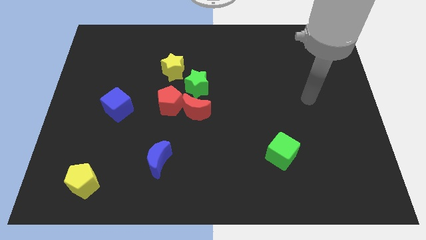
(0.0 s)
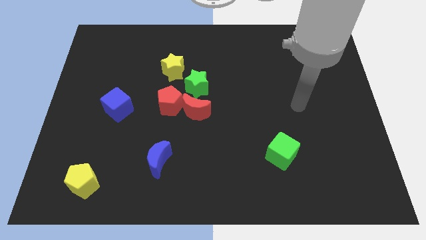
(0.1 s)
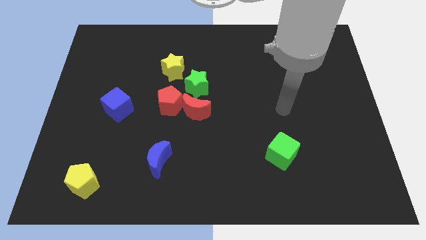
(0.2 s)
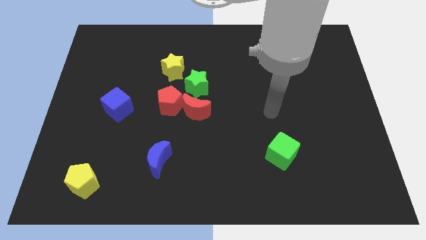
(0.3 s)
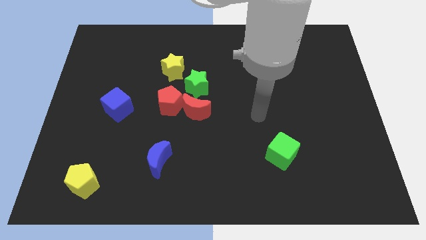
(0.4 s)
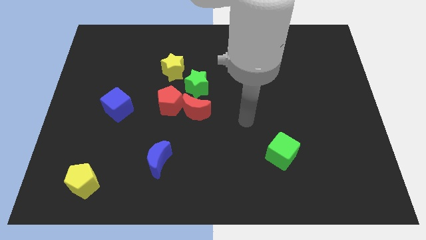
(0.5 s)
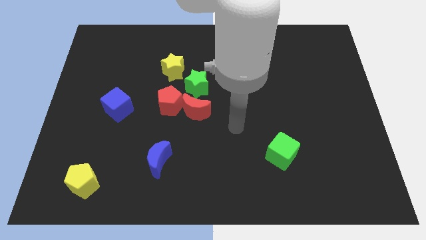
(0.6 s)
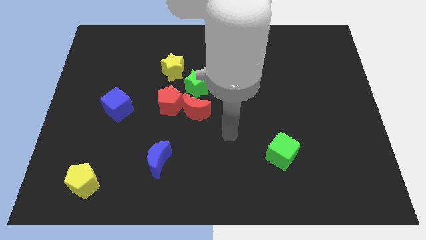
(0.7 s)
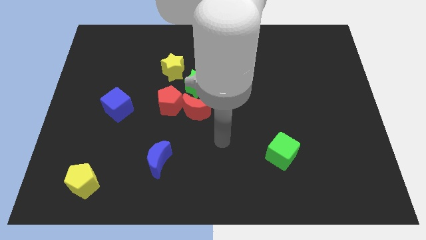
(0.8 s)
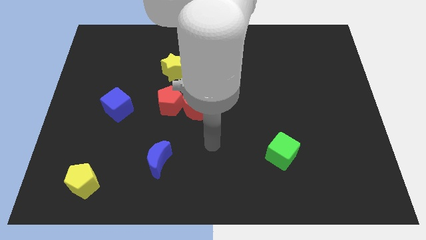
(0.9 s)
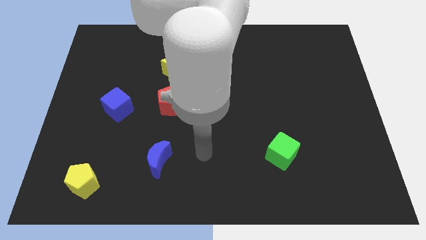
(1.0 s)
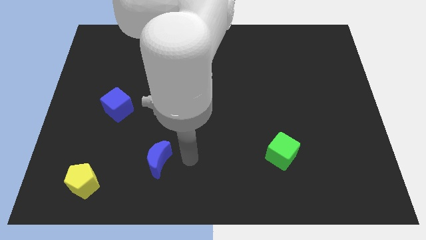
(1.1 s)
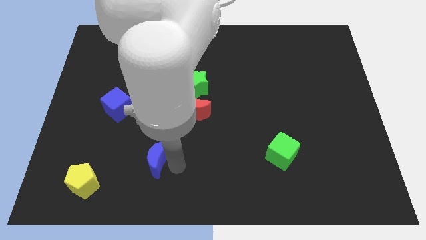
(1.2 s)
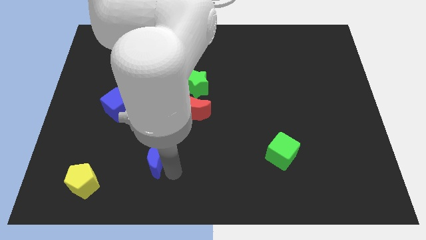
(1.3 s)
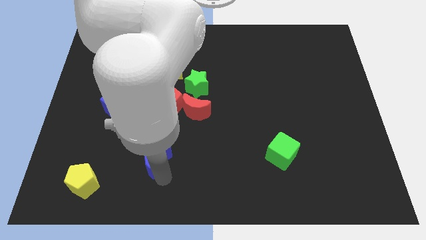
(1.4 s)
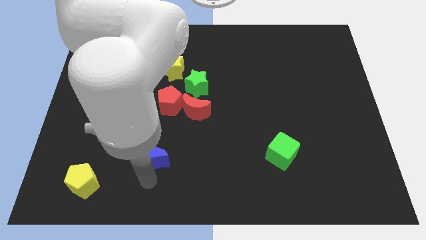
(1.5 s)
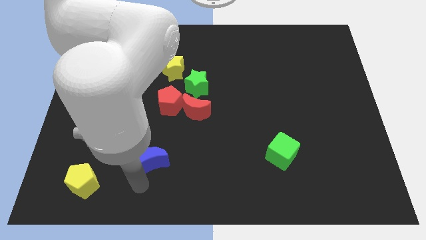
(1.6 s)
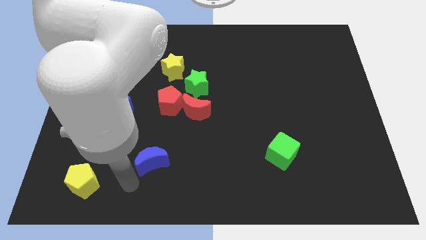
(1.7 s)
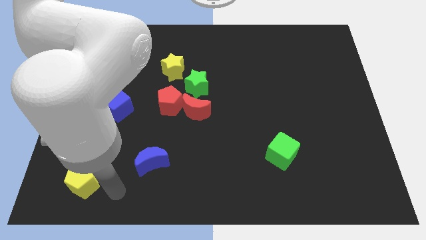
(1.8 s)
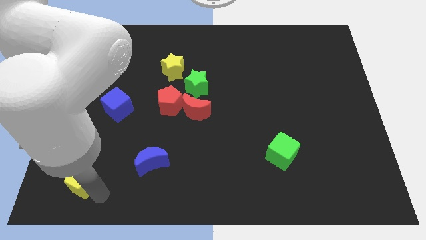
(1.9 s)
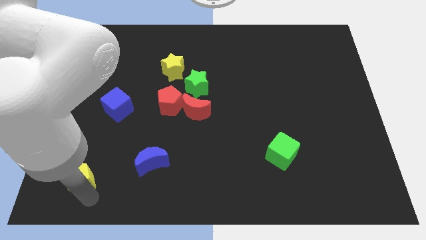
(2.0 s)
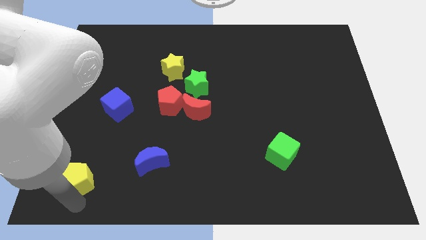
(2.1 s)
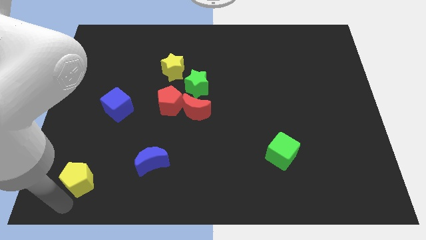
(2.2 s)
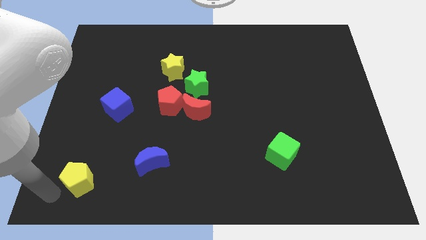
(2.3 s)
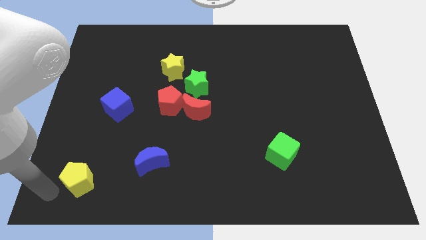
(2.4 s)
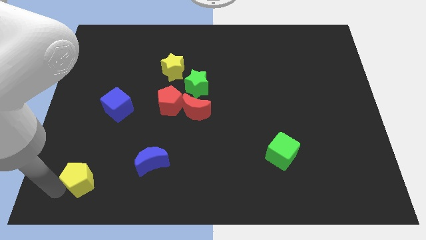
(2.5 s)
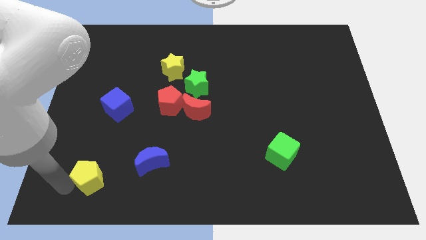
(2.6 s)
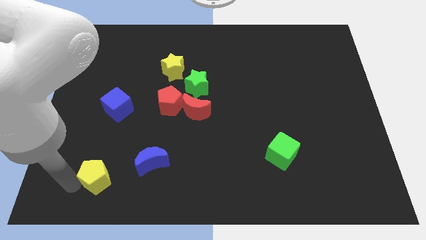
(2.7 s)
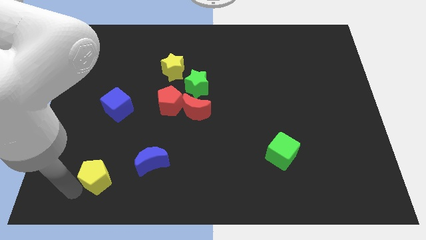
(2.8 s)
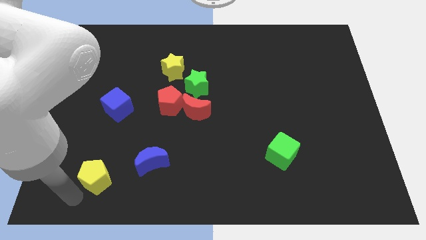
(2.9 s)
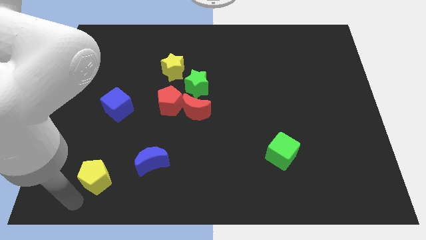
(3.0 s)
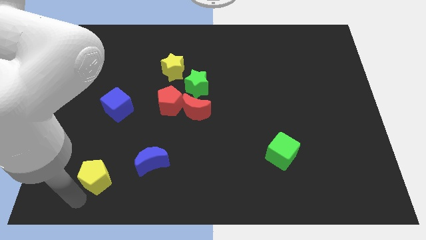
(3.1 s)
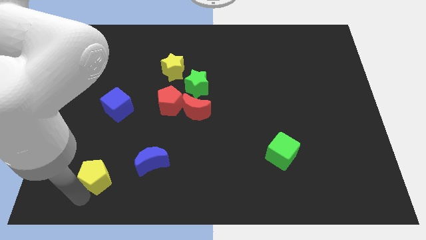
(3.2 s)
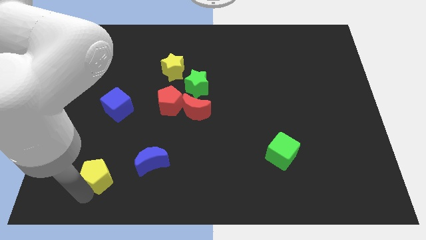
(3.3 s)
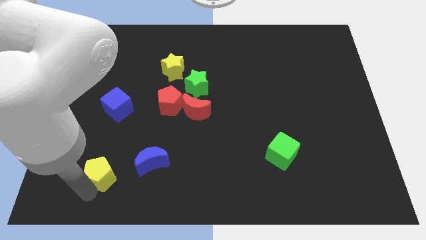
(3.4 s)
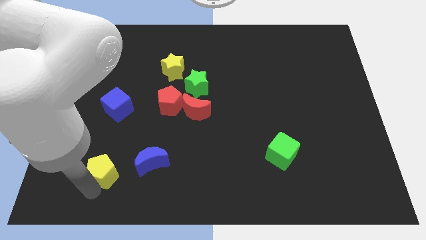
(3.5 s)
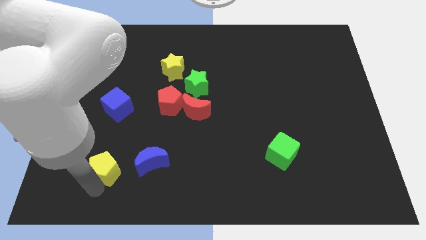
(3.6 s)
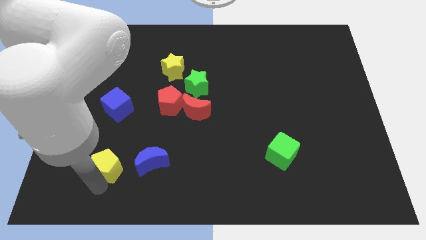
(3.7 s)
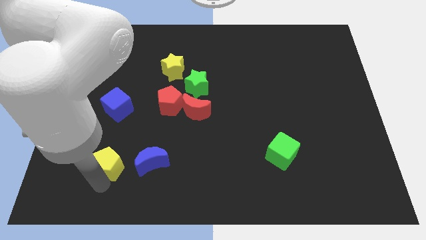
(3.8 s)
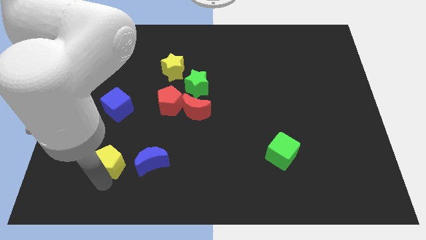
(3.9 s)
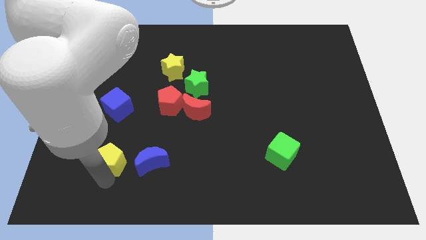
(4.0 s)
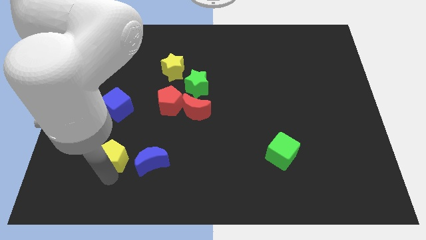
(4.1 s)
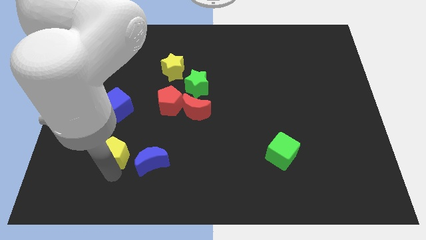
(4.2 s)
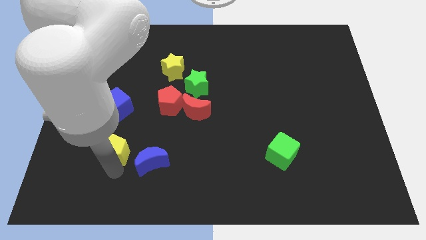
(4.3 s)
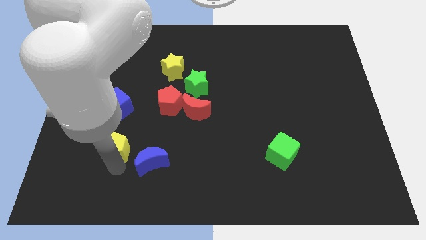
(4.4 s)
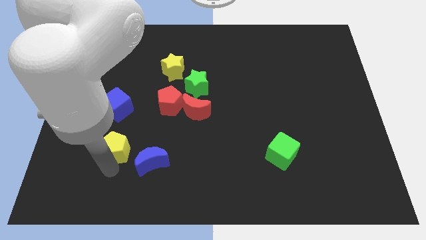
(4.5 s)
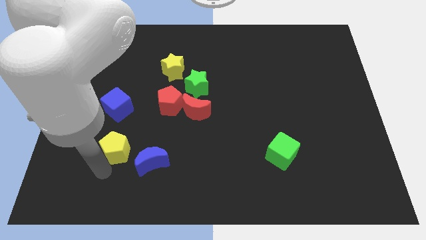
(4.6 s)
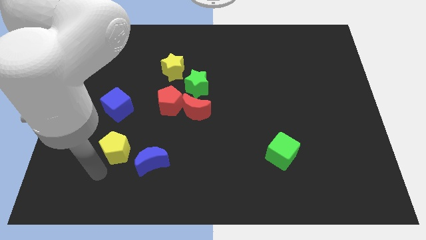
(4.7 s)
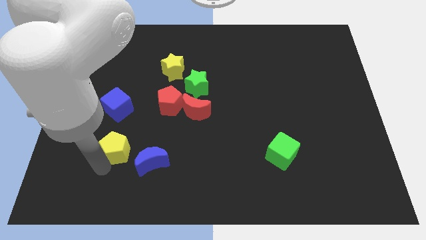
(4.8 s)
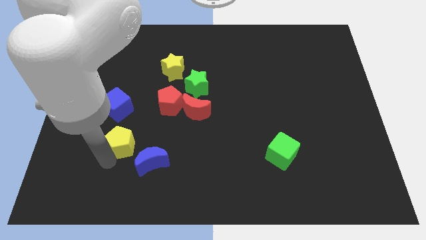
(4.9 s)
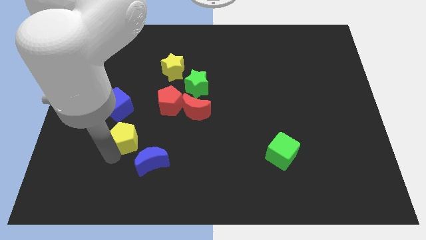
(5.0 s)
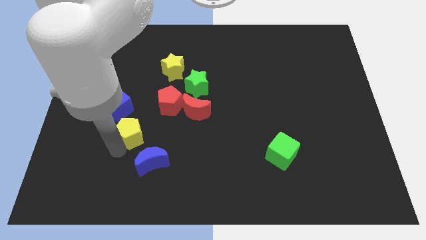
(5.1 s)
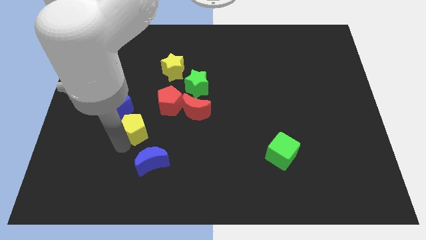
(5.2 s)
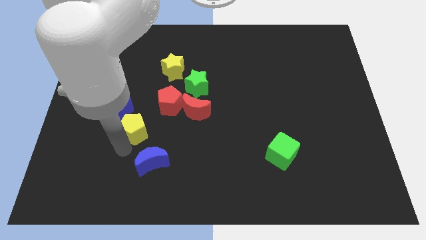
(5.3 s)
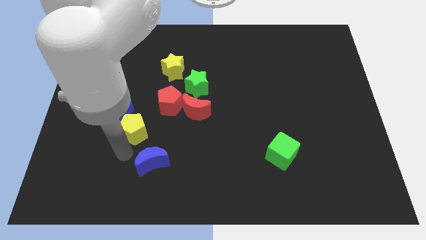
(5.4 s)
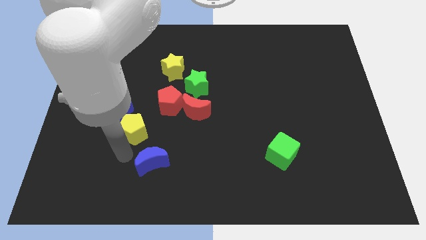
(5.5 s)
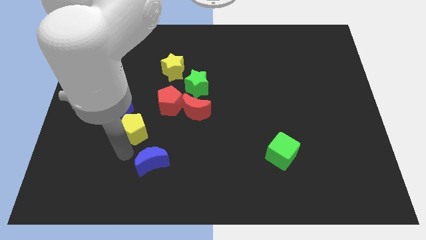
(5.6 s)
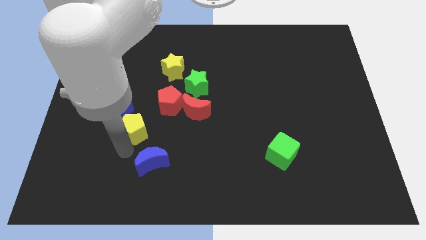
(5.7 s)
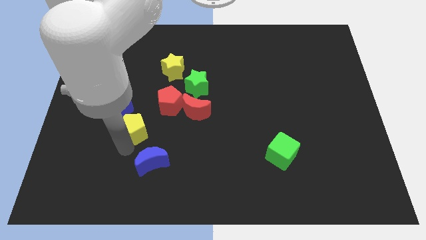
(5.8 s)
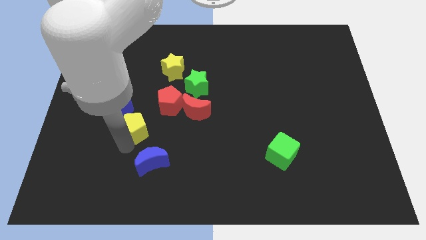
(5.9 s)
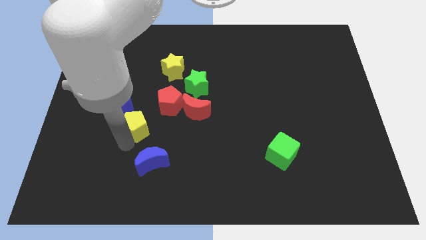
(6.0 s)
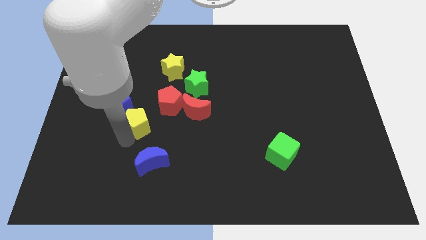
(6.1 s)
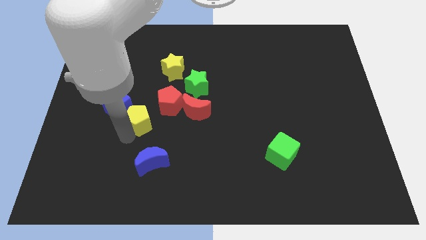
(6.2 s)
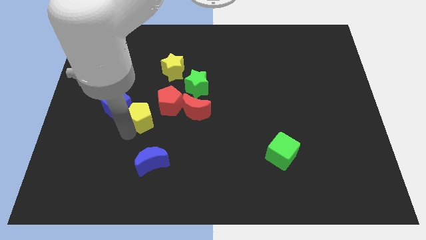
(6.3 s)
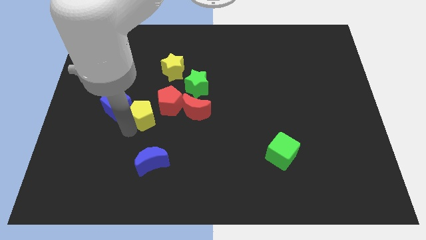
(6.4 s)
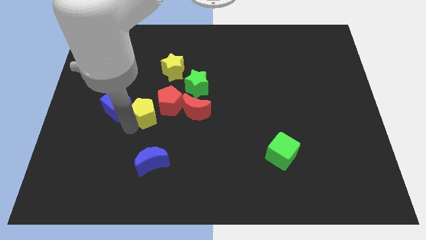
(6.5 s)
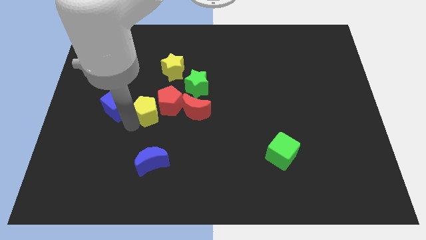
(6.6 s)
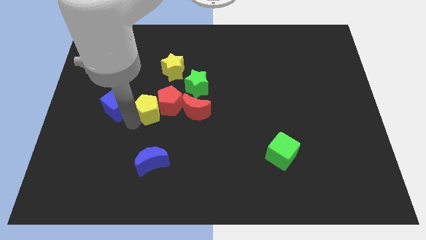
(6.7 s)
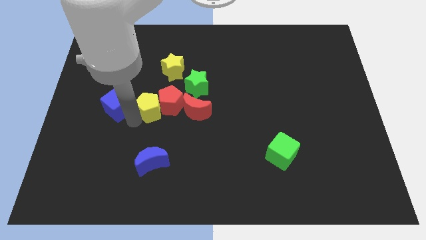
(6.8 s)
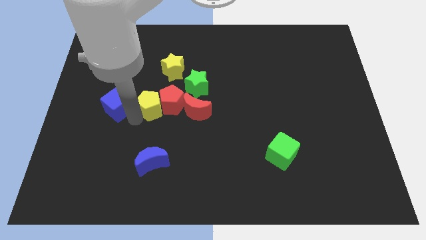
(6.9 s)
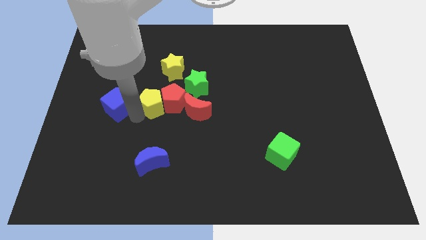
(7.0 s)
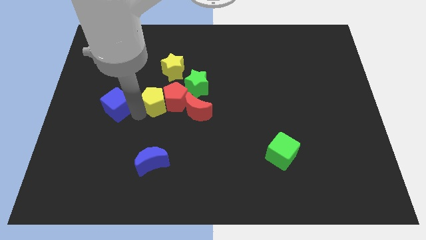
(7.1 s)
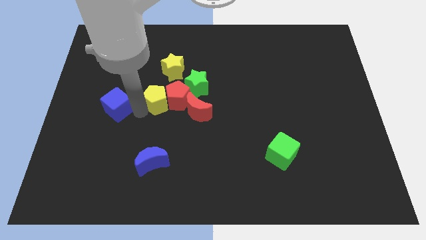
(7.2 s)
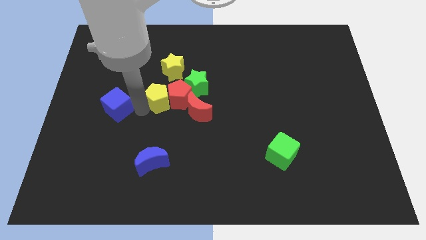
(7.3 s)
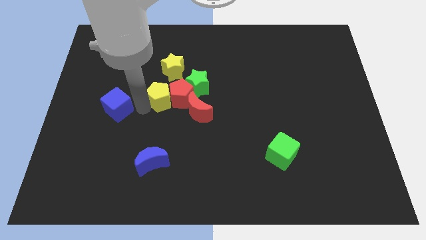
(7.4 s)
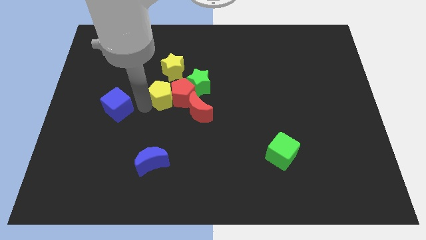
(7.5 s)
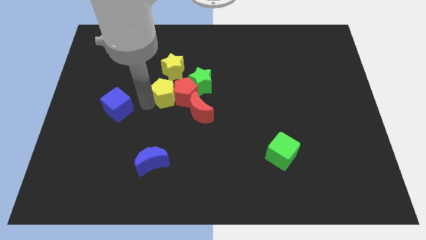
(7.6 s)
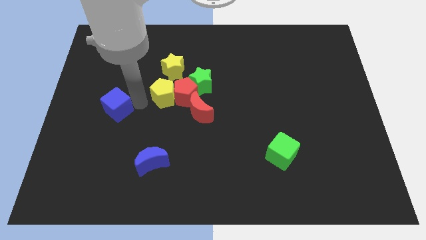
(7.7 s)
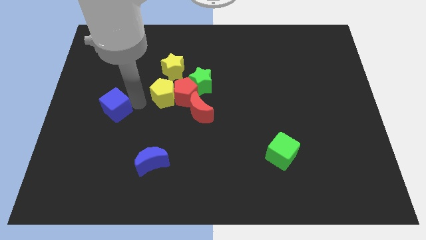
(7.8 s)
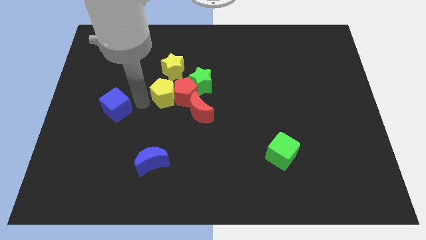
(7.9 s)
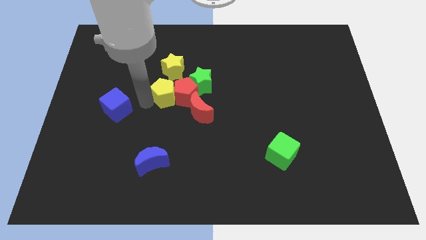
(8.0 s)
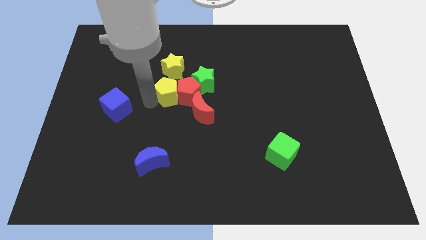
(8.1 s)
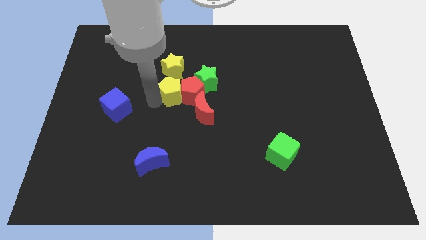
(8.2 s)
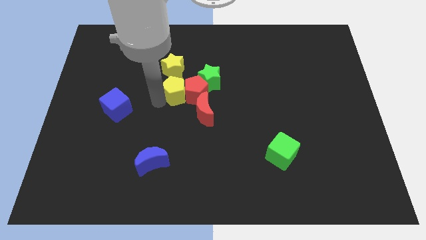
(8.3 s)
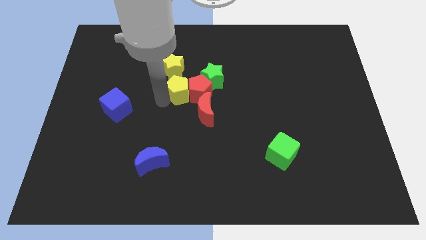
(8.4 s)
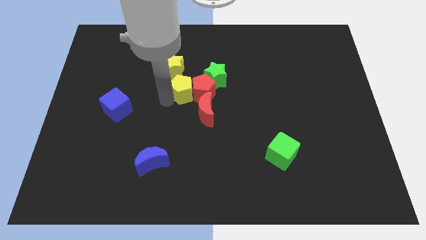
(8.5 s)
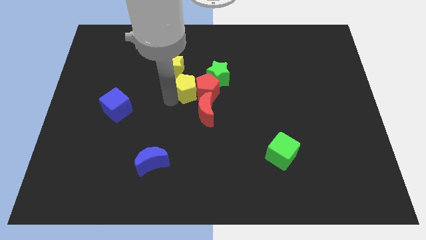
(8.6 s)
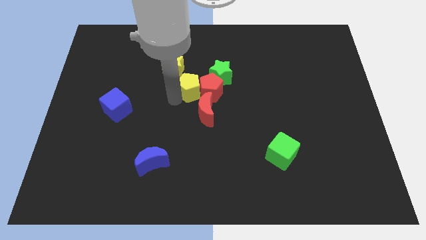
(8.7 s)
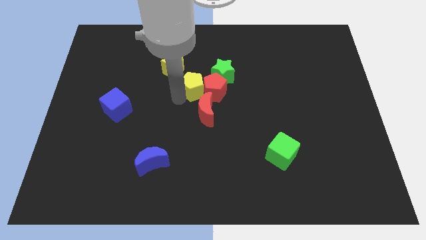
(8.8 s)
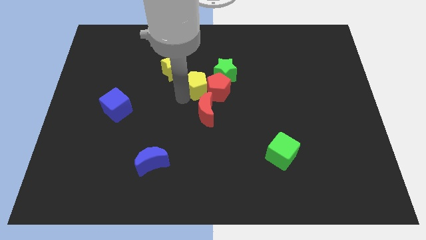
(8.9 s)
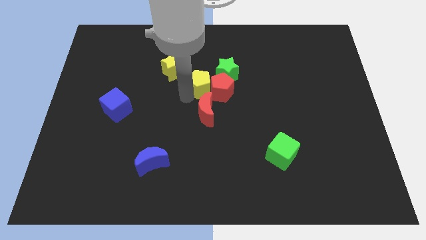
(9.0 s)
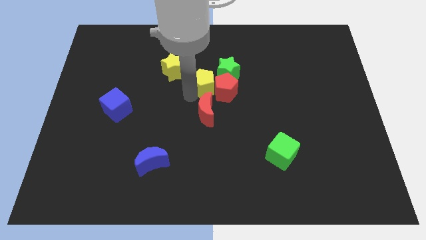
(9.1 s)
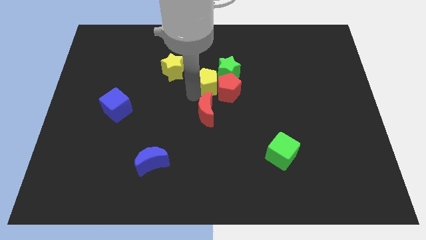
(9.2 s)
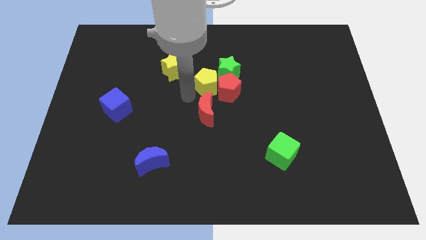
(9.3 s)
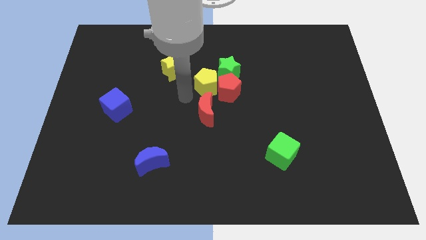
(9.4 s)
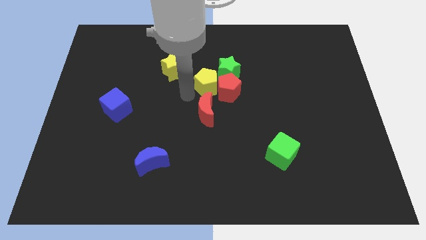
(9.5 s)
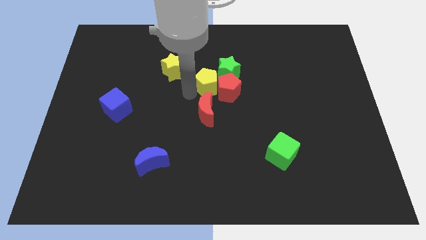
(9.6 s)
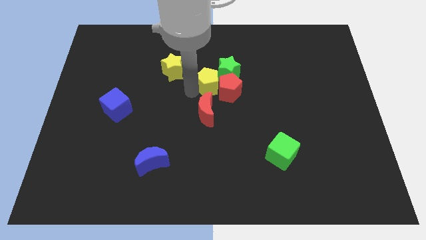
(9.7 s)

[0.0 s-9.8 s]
slide the yellow pentagon to the green star
